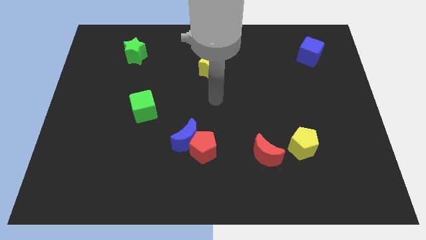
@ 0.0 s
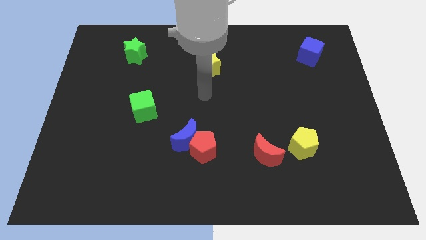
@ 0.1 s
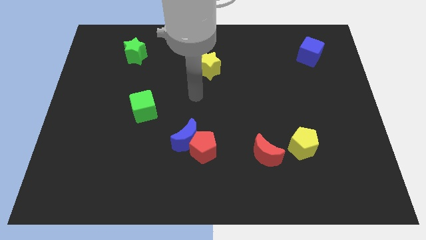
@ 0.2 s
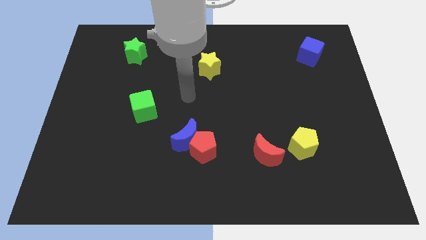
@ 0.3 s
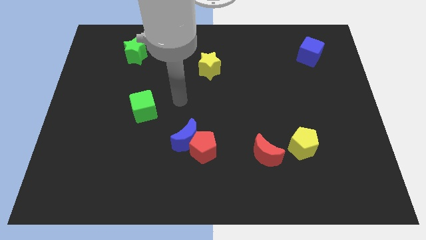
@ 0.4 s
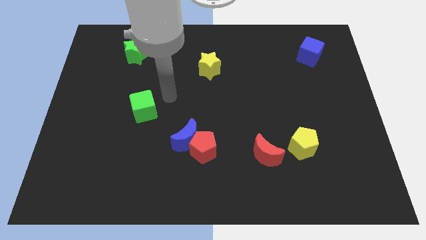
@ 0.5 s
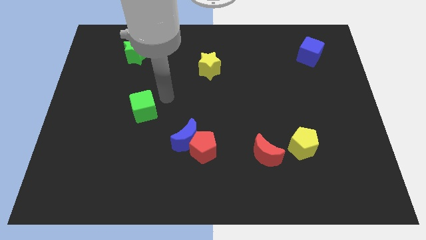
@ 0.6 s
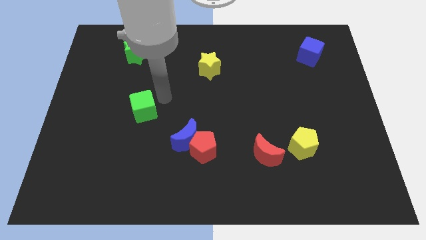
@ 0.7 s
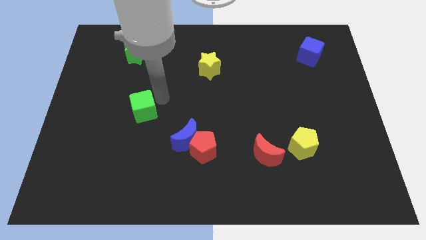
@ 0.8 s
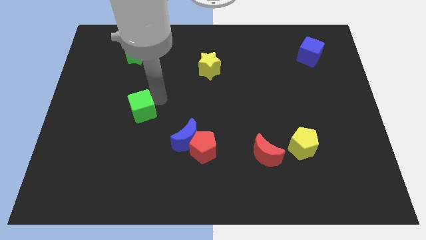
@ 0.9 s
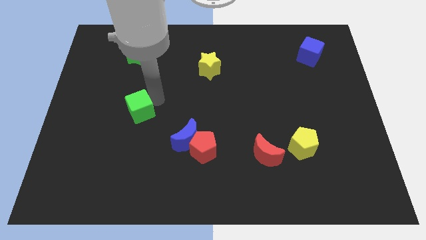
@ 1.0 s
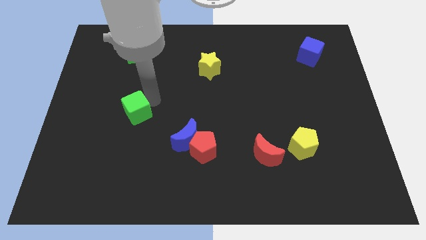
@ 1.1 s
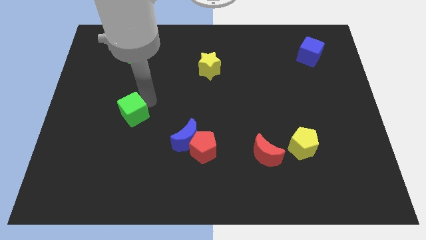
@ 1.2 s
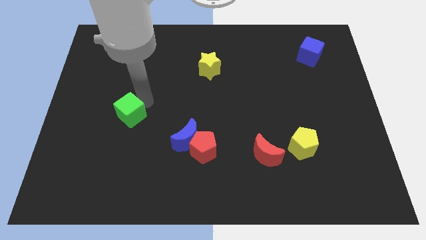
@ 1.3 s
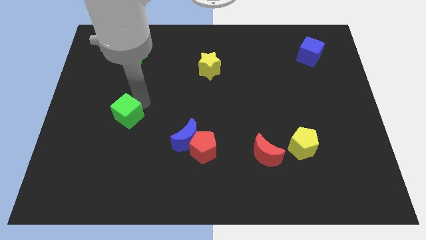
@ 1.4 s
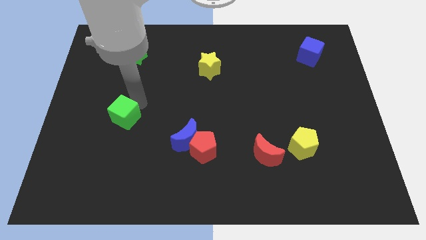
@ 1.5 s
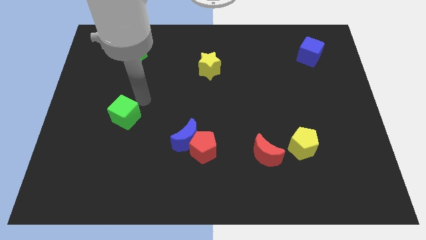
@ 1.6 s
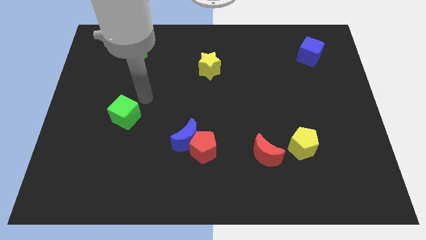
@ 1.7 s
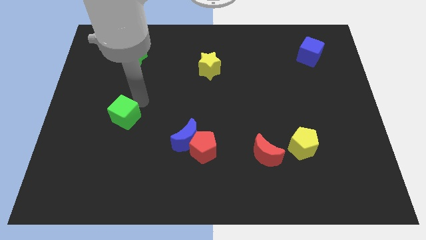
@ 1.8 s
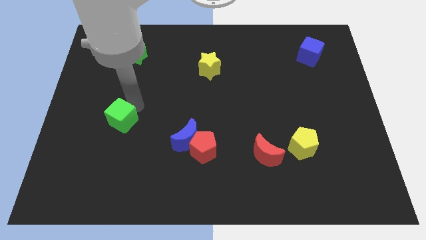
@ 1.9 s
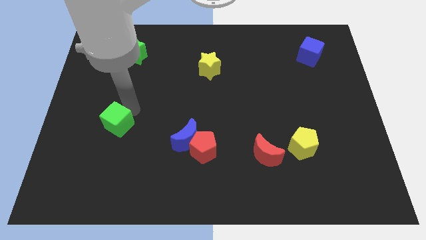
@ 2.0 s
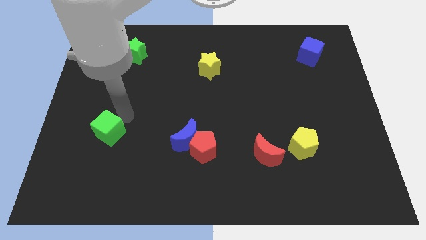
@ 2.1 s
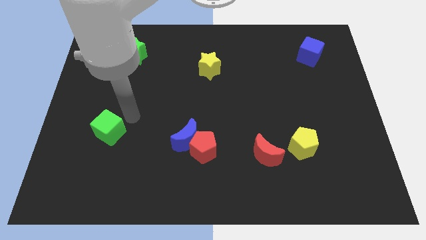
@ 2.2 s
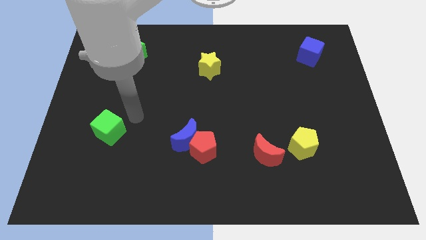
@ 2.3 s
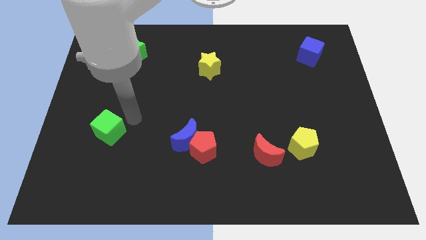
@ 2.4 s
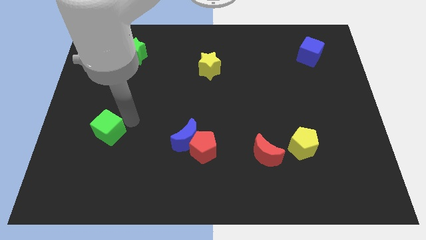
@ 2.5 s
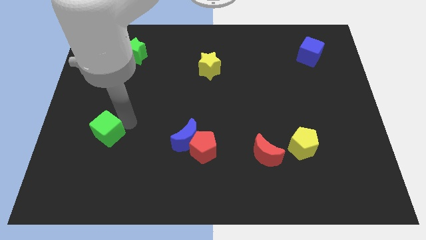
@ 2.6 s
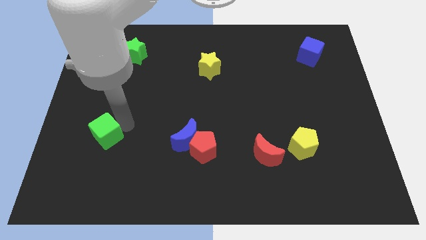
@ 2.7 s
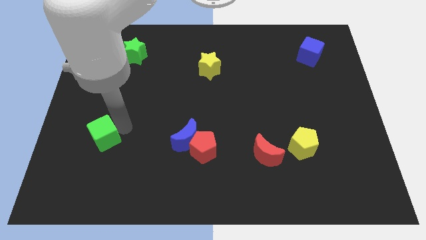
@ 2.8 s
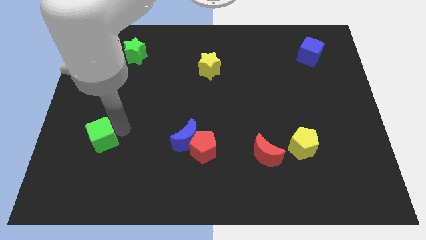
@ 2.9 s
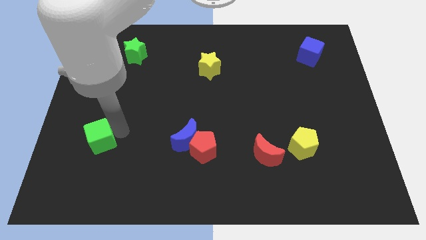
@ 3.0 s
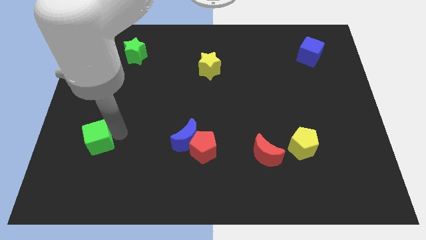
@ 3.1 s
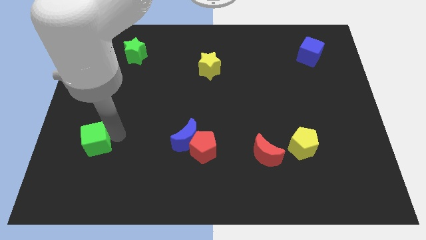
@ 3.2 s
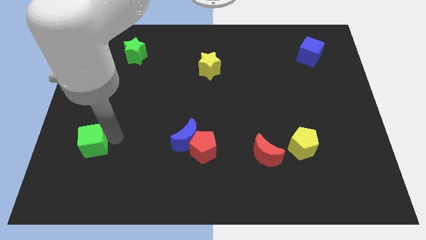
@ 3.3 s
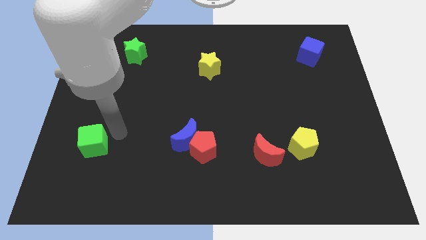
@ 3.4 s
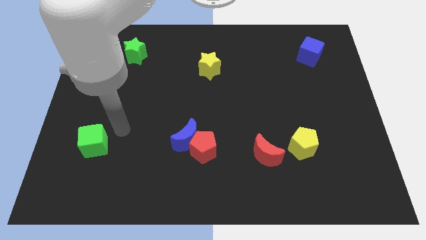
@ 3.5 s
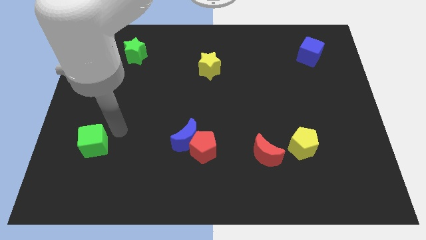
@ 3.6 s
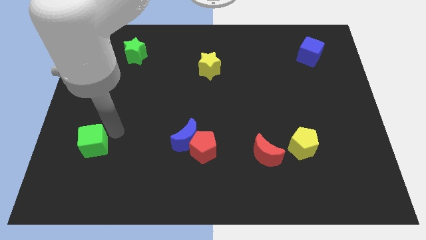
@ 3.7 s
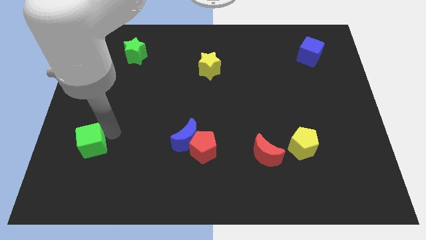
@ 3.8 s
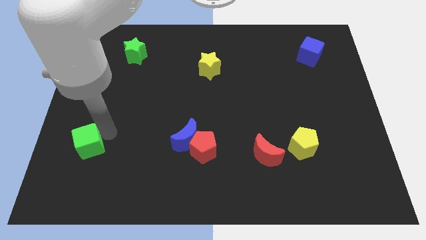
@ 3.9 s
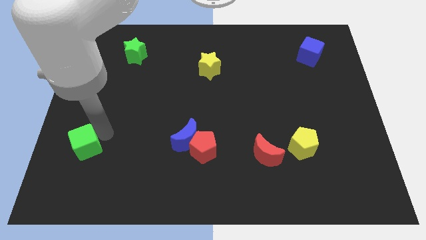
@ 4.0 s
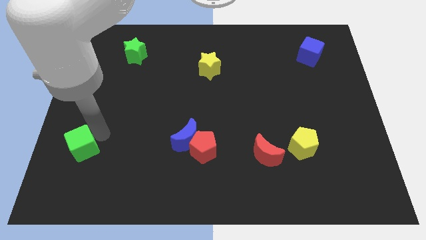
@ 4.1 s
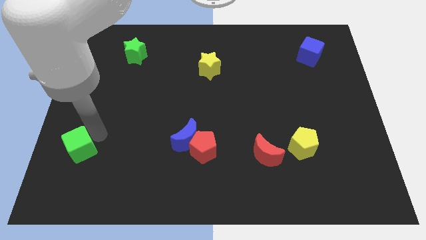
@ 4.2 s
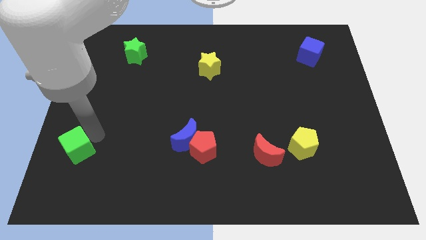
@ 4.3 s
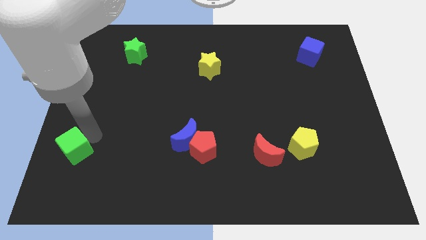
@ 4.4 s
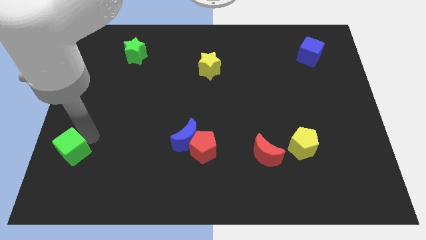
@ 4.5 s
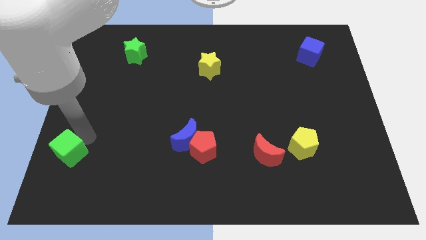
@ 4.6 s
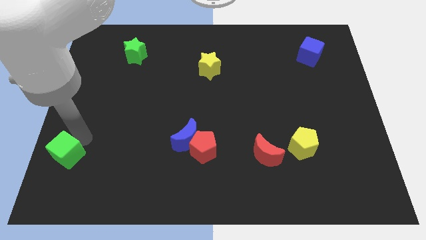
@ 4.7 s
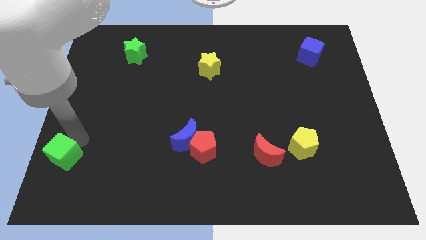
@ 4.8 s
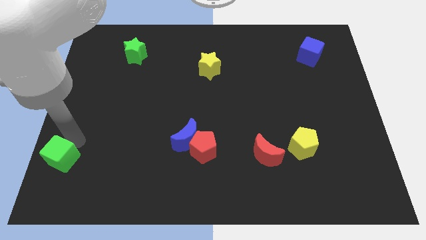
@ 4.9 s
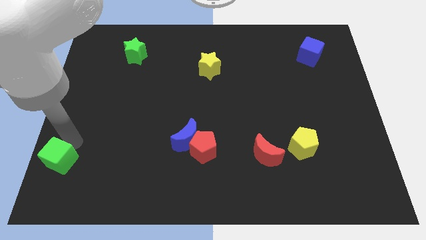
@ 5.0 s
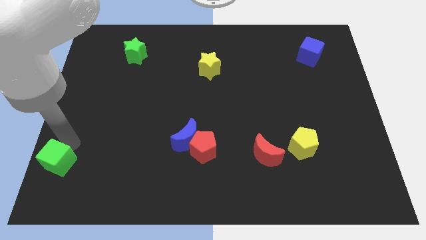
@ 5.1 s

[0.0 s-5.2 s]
move the green cube to the bottom left

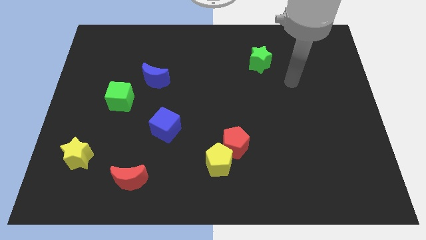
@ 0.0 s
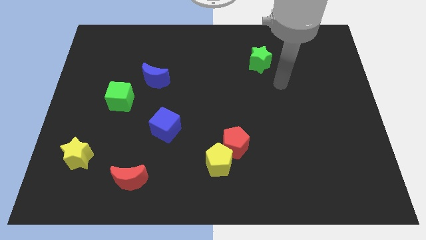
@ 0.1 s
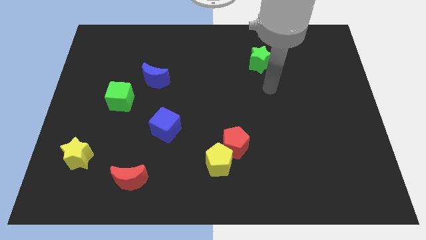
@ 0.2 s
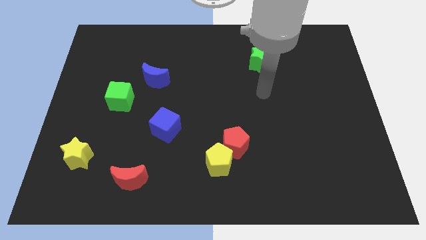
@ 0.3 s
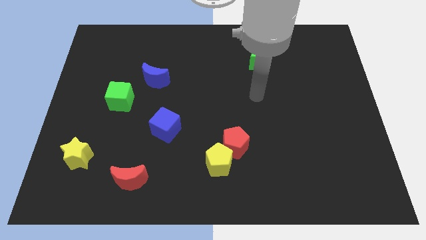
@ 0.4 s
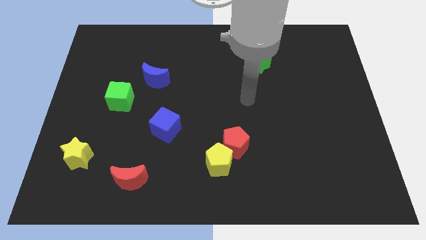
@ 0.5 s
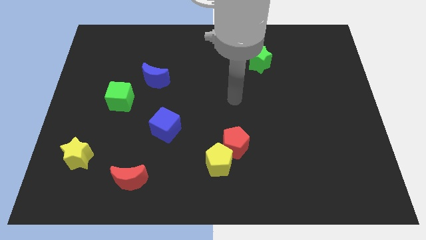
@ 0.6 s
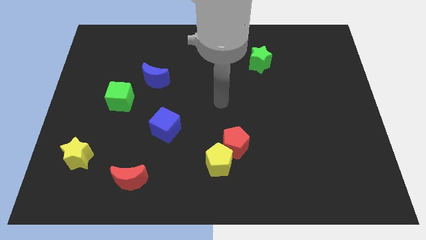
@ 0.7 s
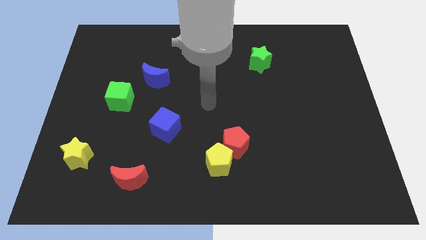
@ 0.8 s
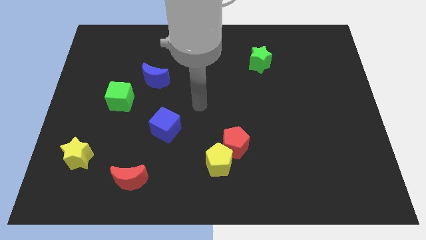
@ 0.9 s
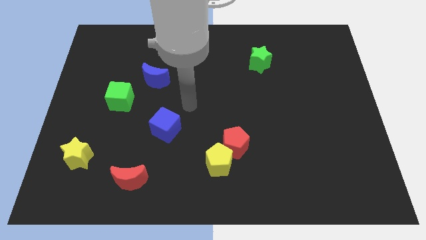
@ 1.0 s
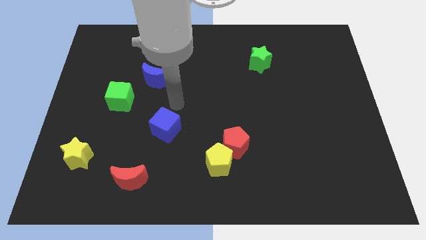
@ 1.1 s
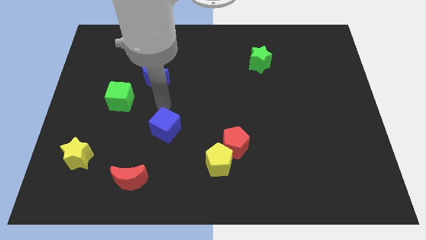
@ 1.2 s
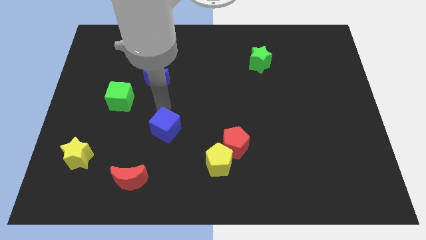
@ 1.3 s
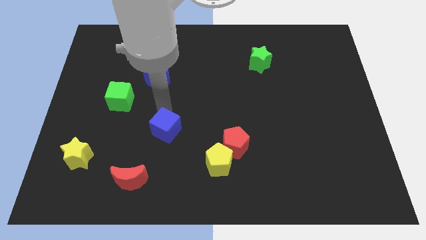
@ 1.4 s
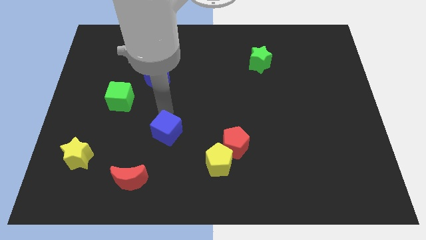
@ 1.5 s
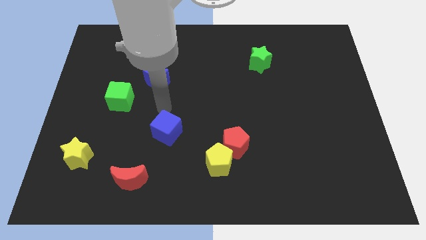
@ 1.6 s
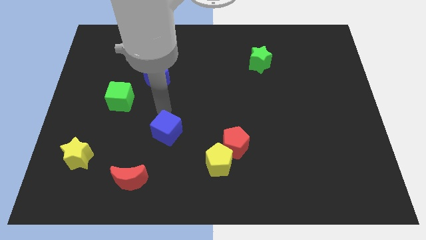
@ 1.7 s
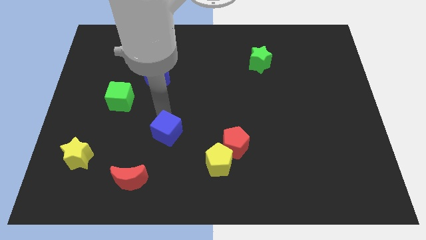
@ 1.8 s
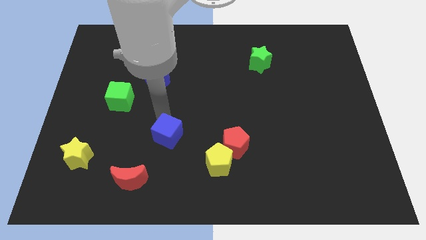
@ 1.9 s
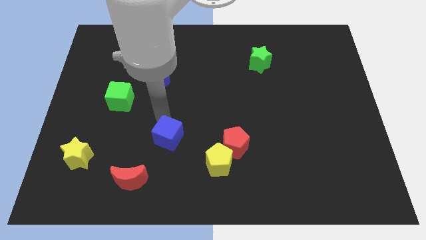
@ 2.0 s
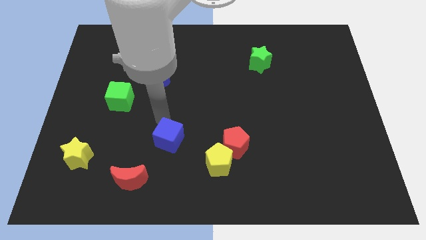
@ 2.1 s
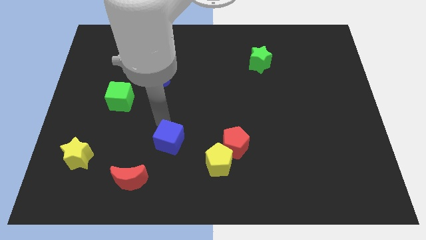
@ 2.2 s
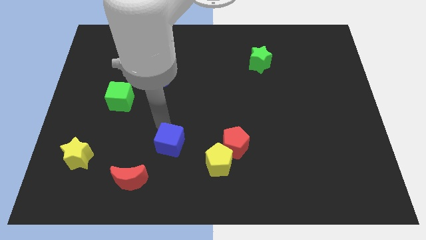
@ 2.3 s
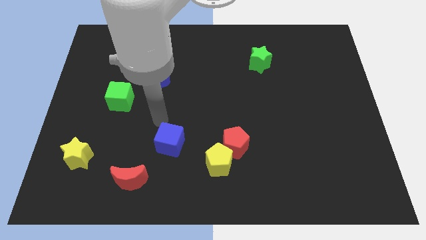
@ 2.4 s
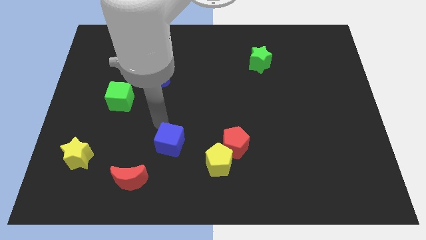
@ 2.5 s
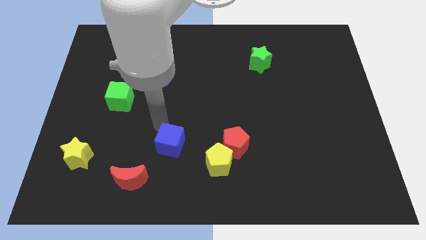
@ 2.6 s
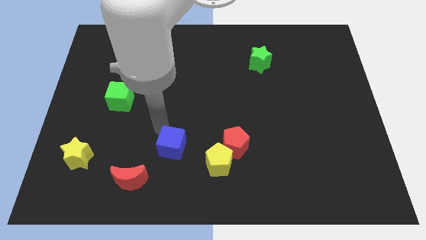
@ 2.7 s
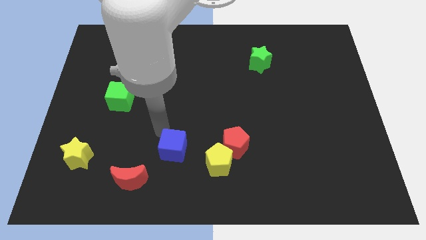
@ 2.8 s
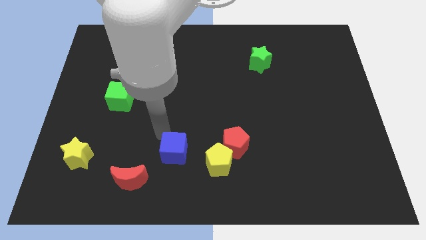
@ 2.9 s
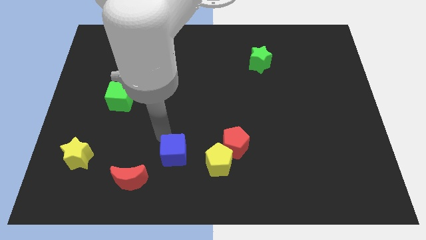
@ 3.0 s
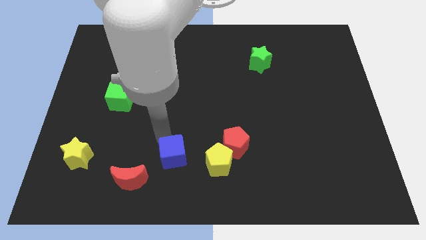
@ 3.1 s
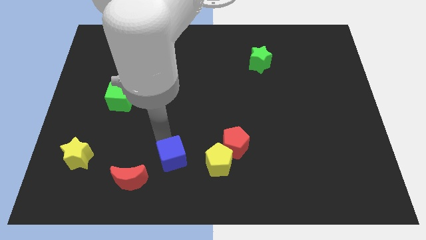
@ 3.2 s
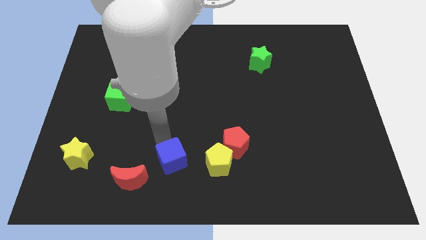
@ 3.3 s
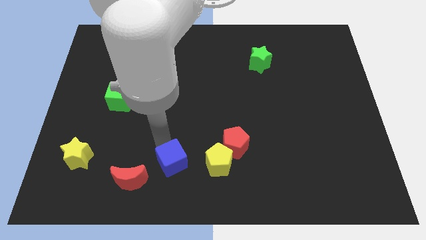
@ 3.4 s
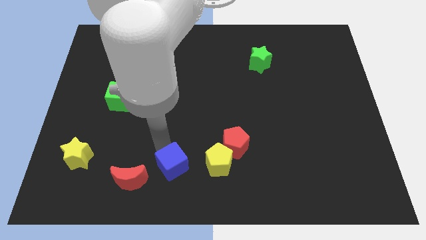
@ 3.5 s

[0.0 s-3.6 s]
slide the blue cube to the bottom side
